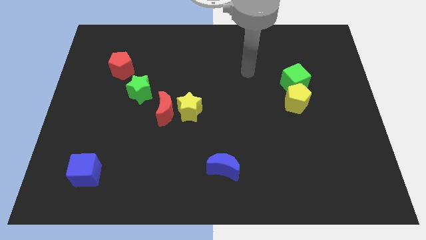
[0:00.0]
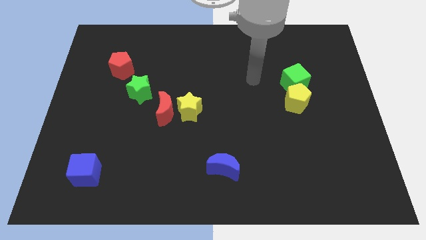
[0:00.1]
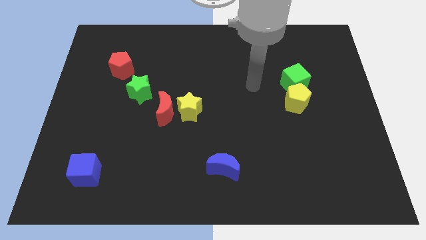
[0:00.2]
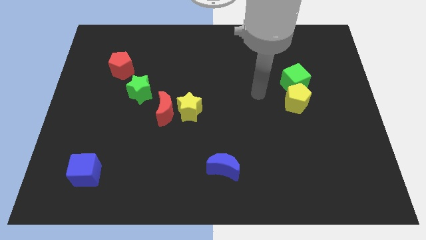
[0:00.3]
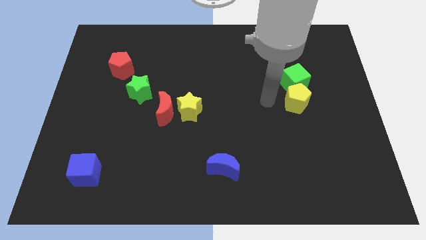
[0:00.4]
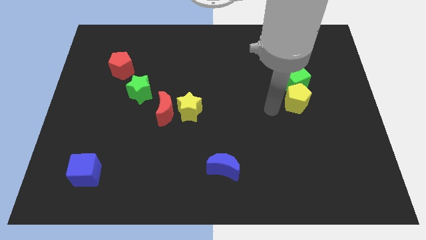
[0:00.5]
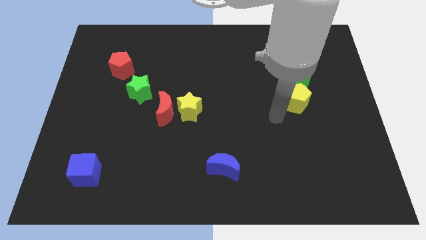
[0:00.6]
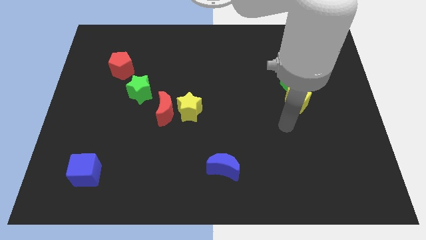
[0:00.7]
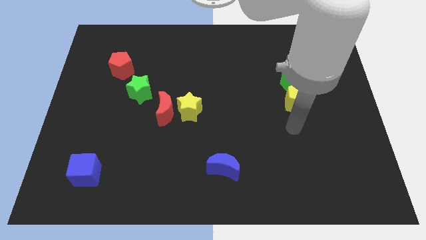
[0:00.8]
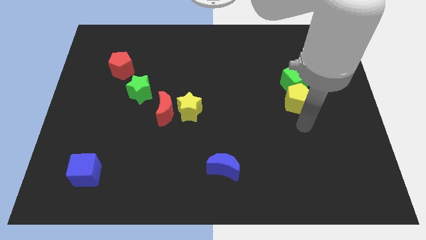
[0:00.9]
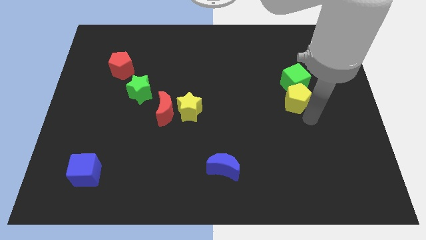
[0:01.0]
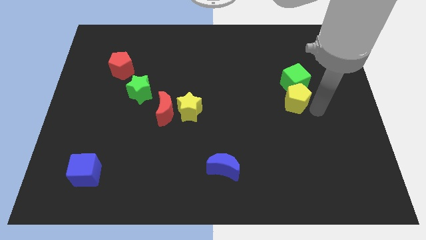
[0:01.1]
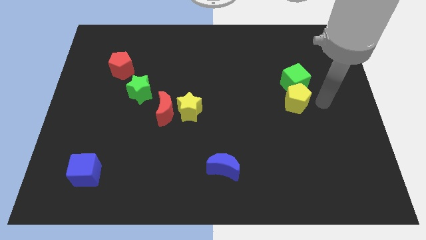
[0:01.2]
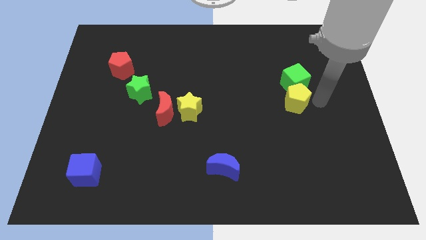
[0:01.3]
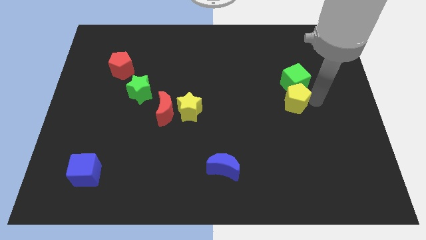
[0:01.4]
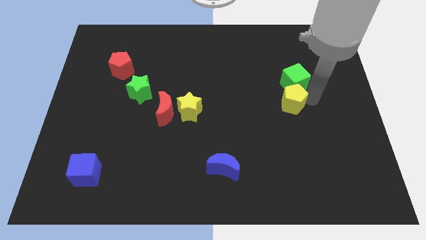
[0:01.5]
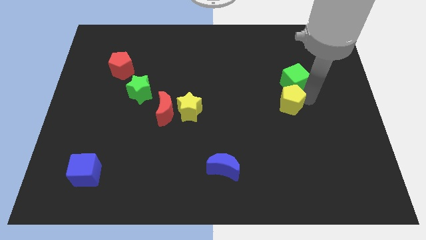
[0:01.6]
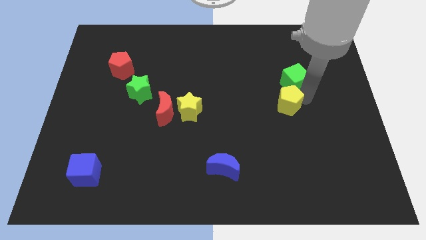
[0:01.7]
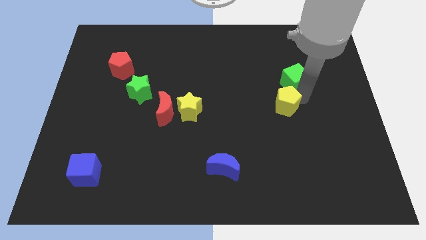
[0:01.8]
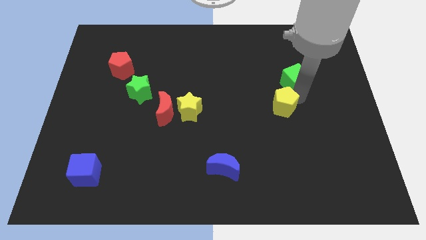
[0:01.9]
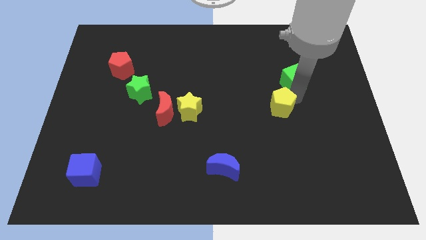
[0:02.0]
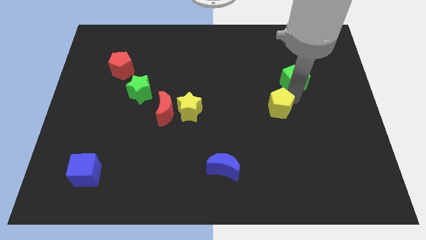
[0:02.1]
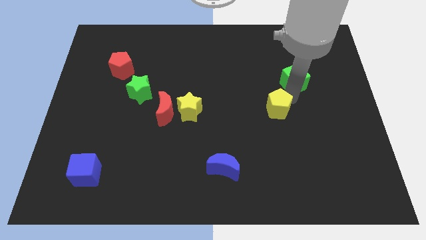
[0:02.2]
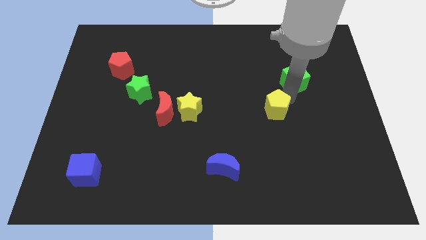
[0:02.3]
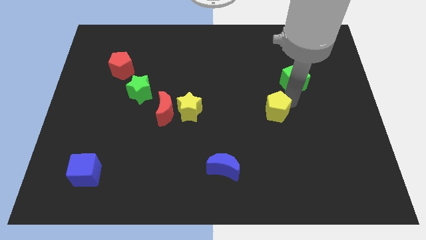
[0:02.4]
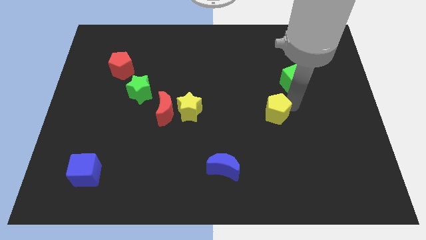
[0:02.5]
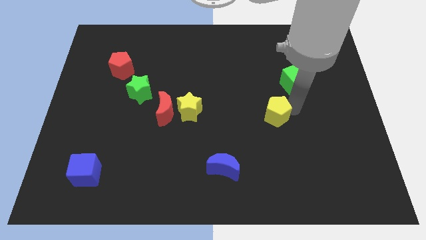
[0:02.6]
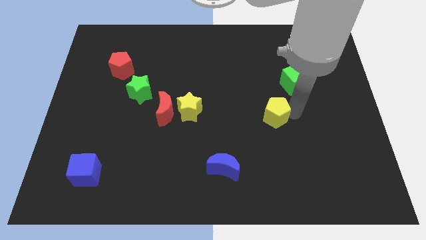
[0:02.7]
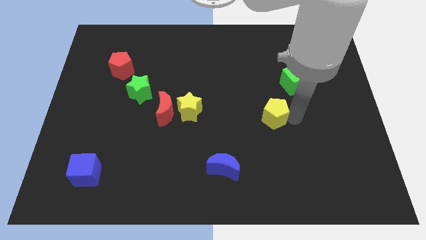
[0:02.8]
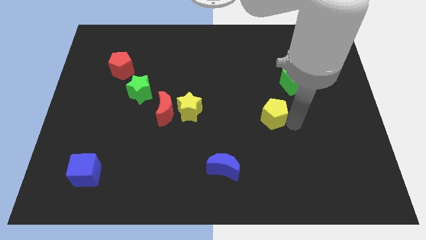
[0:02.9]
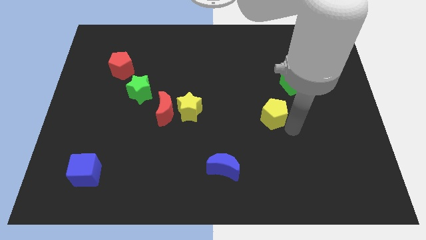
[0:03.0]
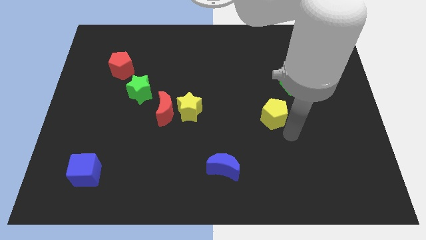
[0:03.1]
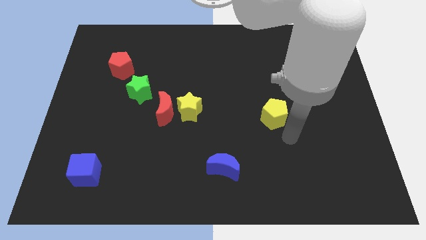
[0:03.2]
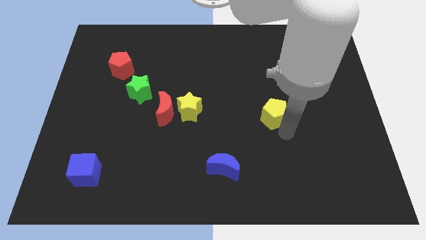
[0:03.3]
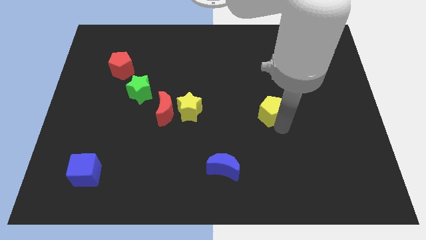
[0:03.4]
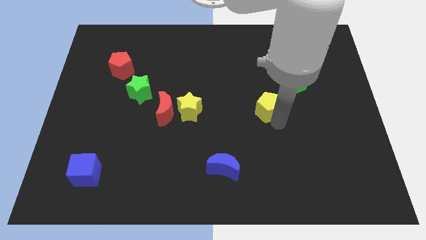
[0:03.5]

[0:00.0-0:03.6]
move the yellow pentagon left somewhat

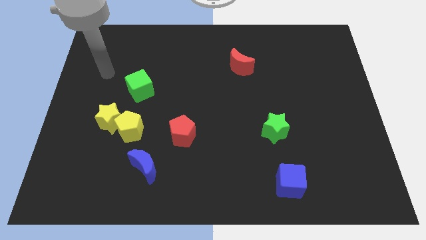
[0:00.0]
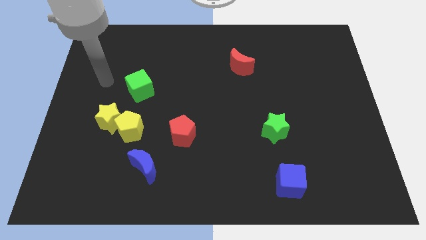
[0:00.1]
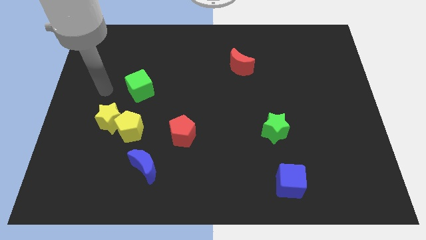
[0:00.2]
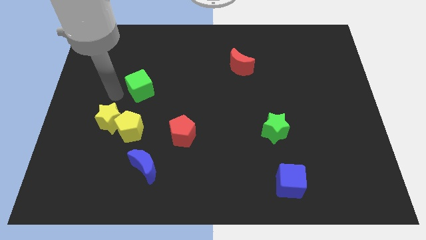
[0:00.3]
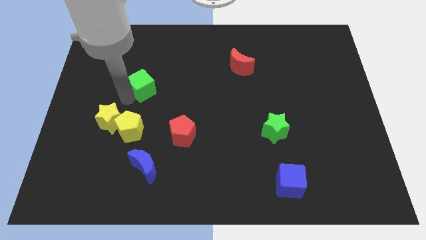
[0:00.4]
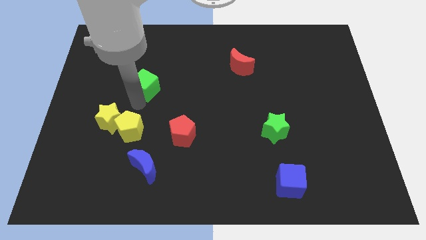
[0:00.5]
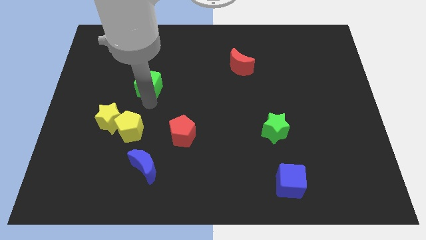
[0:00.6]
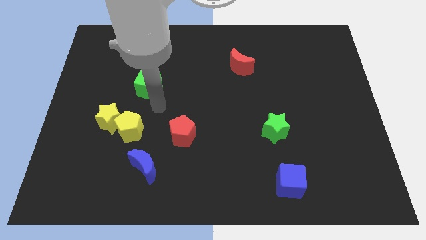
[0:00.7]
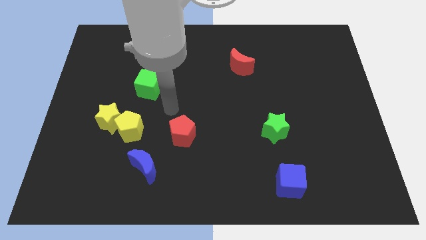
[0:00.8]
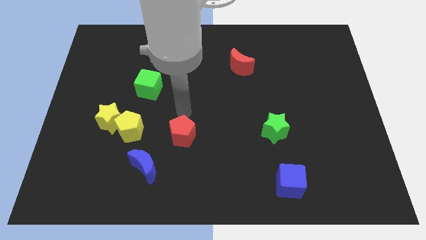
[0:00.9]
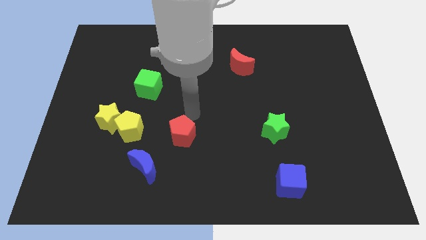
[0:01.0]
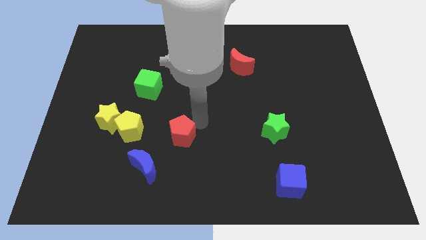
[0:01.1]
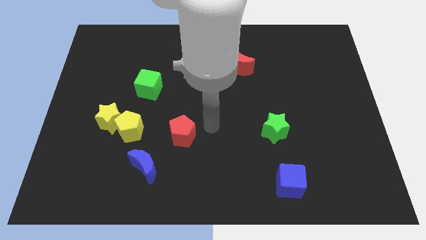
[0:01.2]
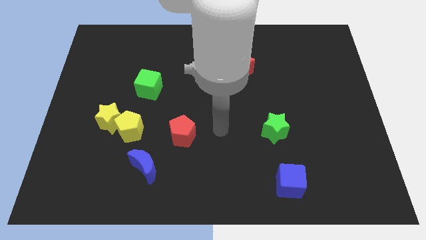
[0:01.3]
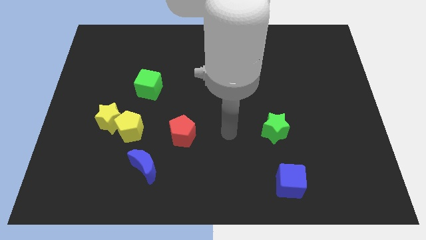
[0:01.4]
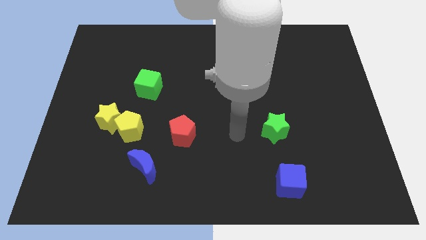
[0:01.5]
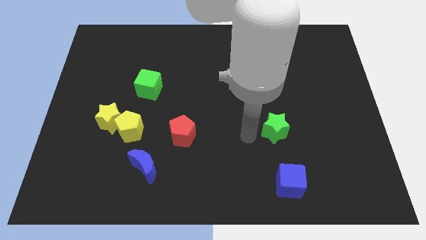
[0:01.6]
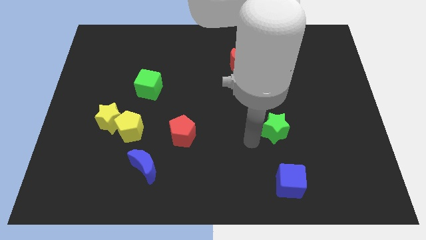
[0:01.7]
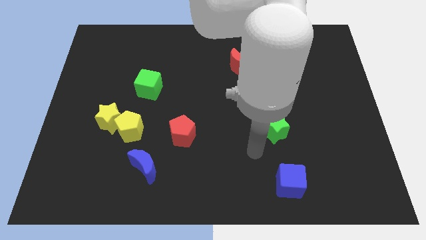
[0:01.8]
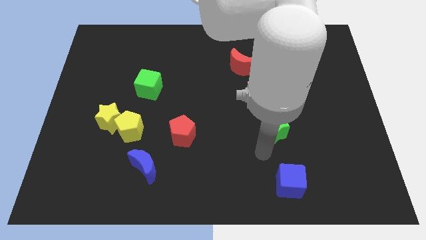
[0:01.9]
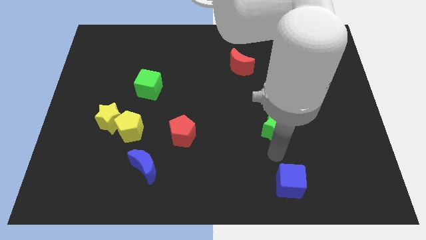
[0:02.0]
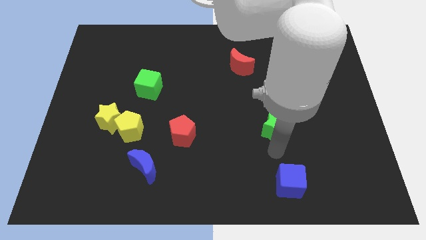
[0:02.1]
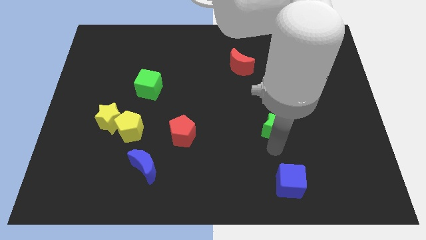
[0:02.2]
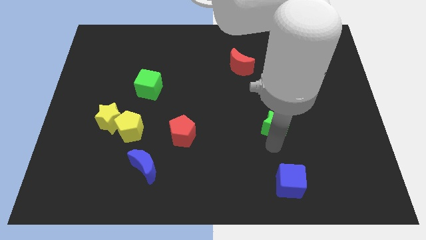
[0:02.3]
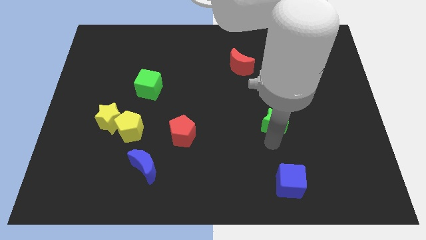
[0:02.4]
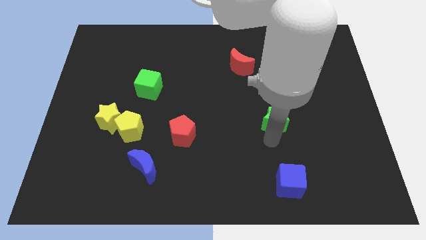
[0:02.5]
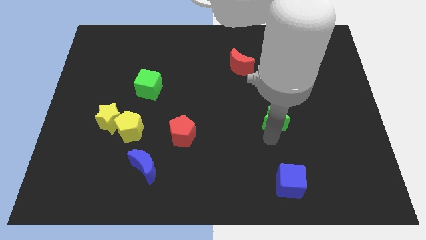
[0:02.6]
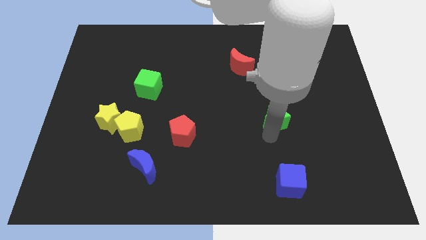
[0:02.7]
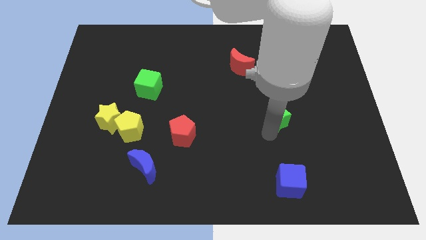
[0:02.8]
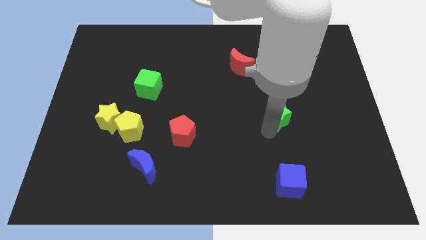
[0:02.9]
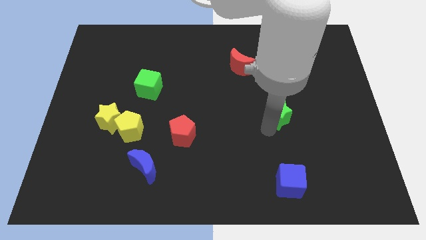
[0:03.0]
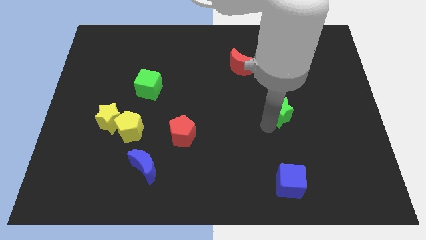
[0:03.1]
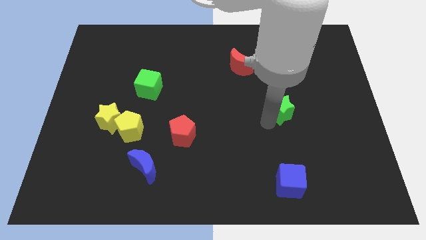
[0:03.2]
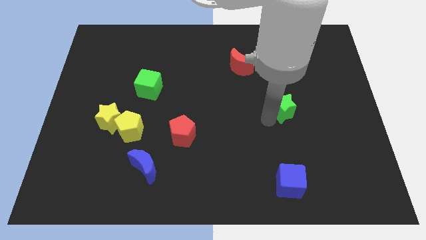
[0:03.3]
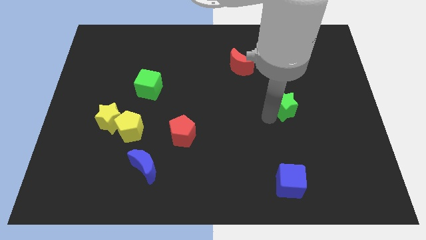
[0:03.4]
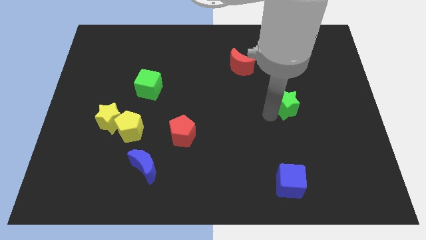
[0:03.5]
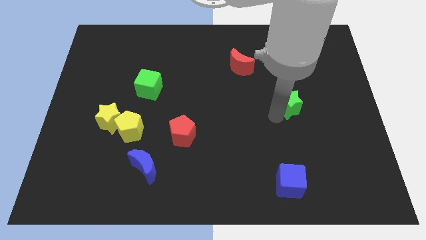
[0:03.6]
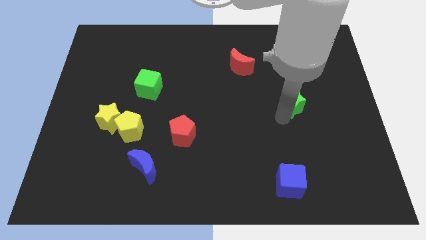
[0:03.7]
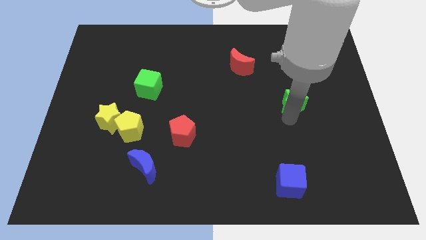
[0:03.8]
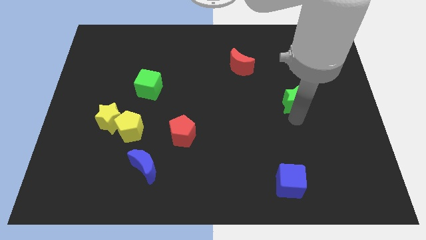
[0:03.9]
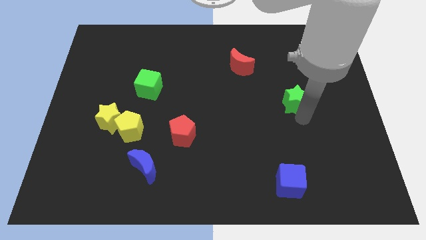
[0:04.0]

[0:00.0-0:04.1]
slide the green star up a little bit

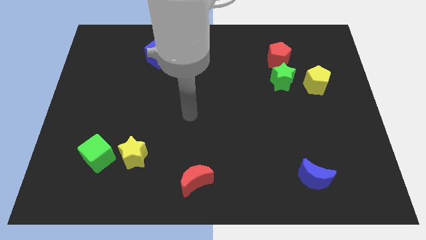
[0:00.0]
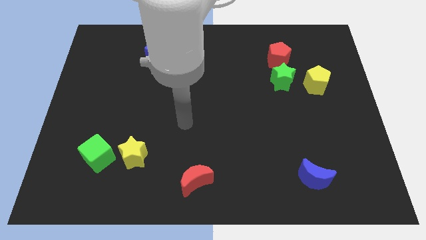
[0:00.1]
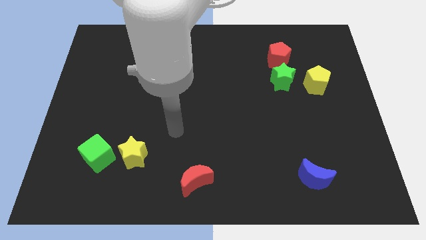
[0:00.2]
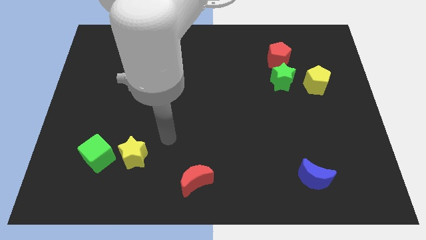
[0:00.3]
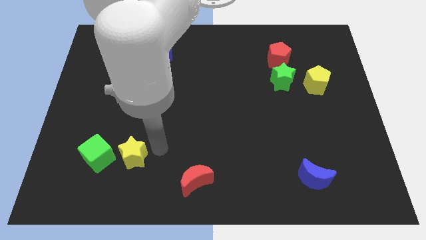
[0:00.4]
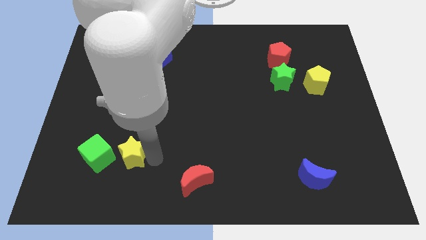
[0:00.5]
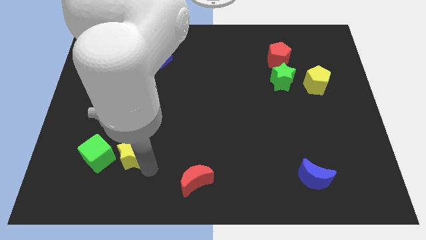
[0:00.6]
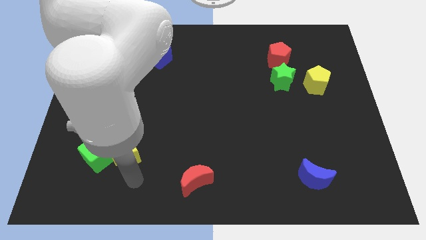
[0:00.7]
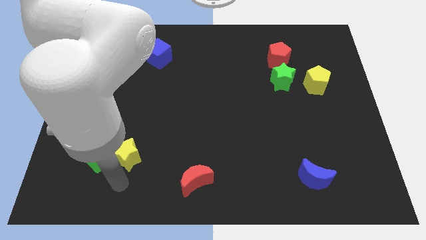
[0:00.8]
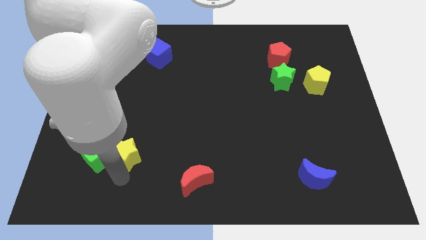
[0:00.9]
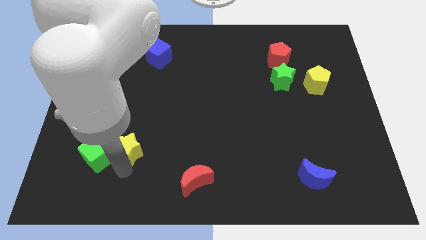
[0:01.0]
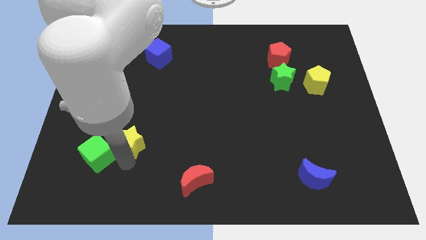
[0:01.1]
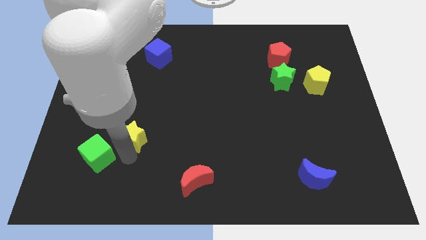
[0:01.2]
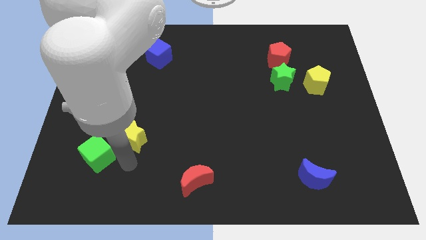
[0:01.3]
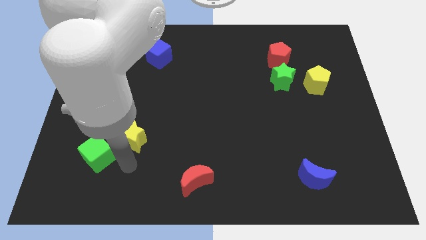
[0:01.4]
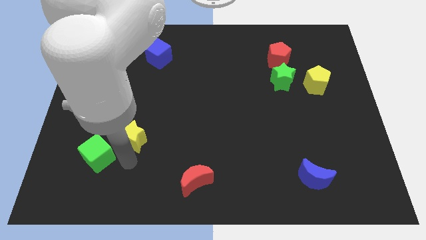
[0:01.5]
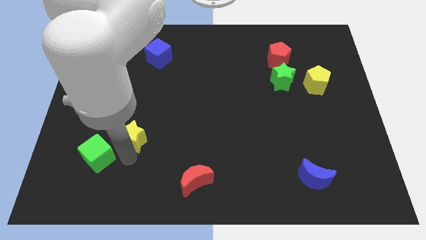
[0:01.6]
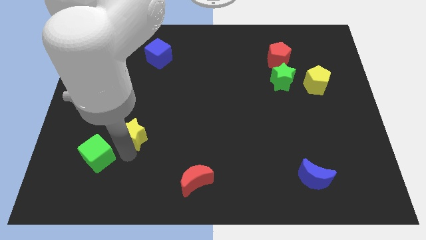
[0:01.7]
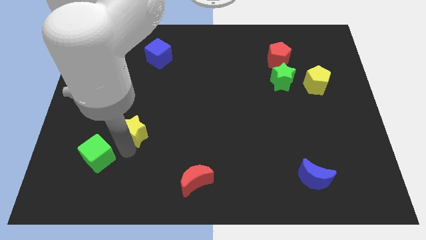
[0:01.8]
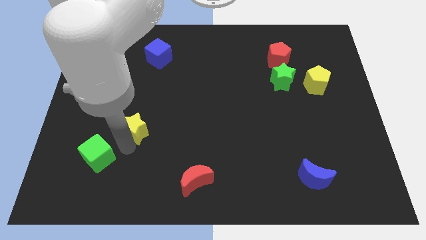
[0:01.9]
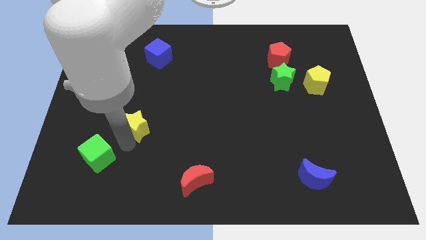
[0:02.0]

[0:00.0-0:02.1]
slide the yellow star slightly up
